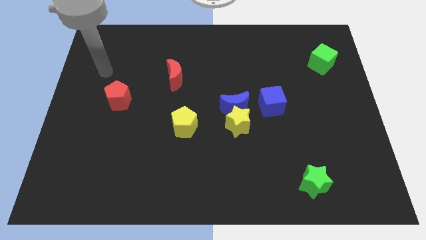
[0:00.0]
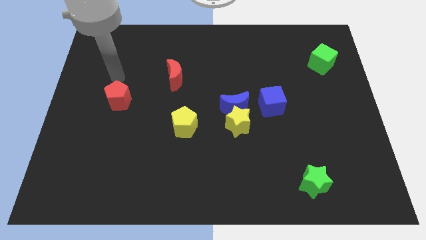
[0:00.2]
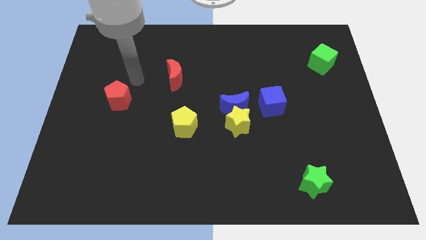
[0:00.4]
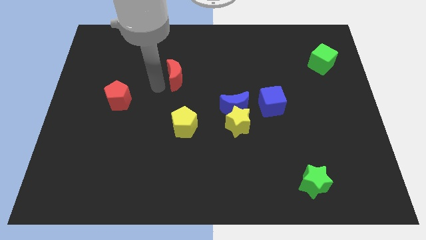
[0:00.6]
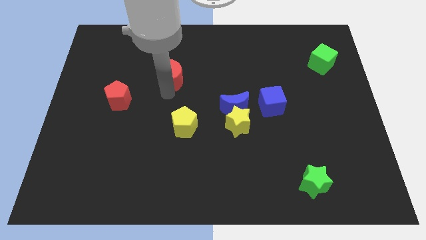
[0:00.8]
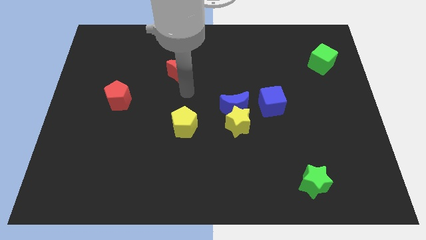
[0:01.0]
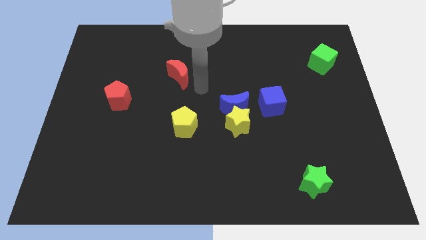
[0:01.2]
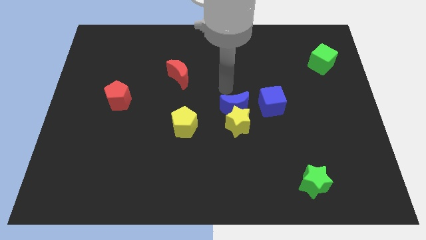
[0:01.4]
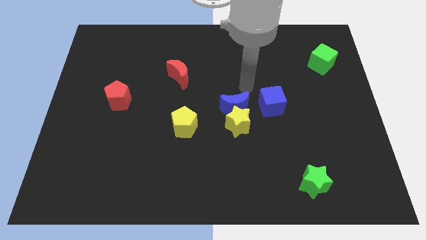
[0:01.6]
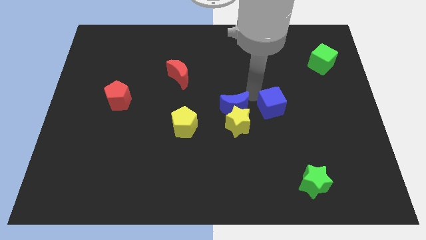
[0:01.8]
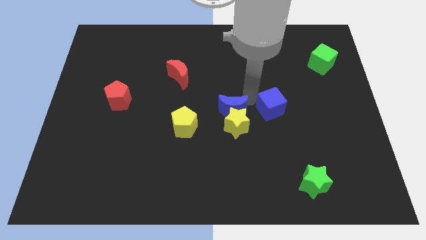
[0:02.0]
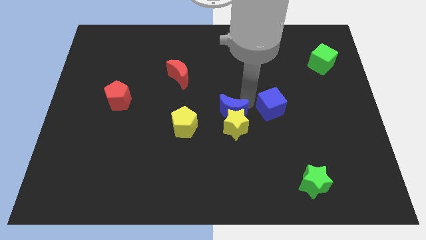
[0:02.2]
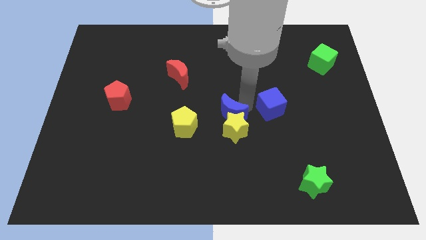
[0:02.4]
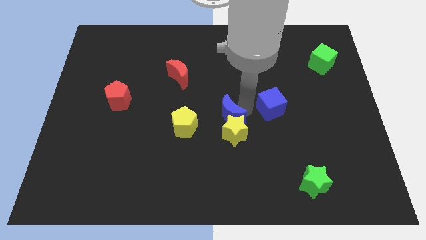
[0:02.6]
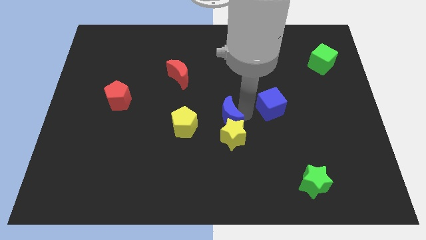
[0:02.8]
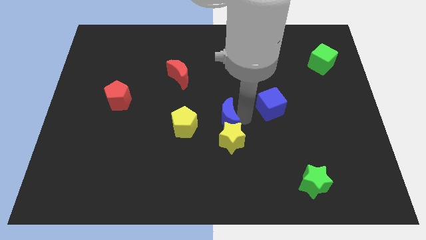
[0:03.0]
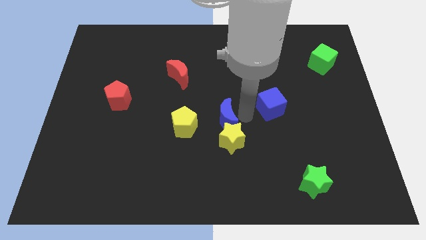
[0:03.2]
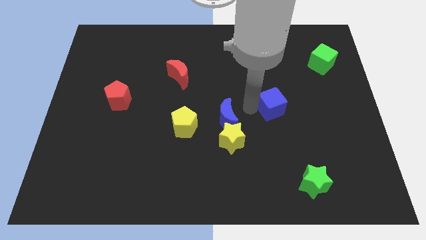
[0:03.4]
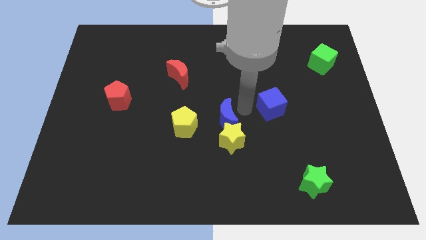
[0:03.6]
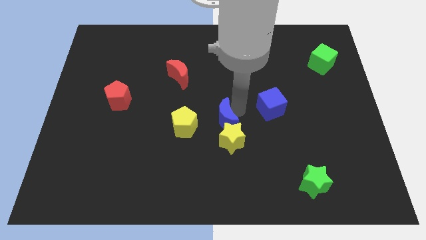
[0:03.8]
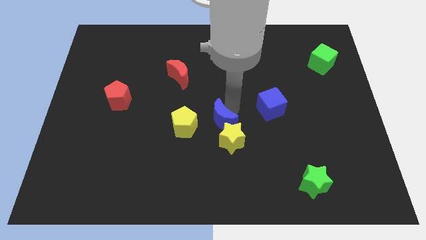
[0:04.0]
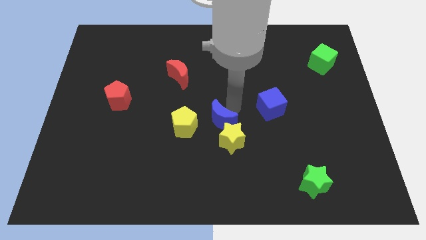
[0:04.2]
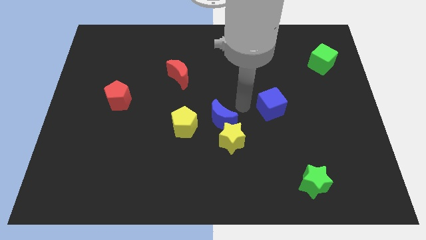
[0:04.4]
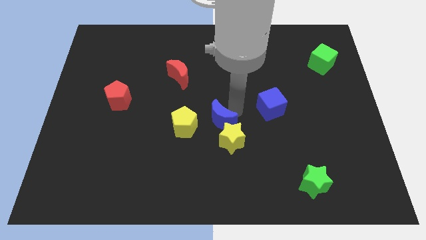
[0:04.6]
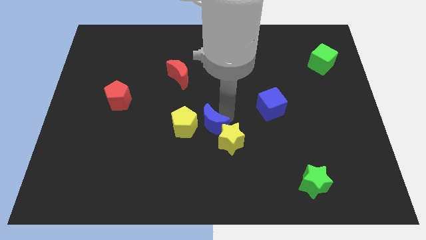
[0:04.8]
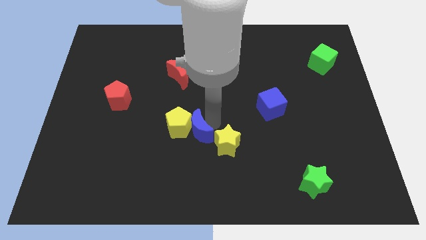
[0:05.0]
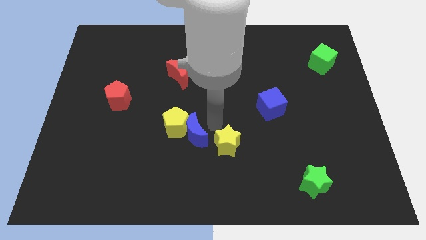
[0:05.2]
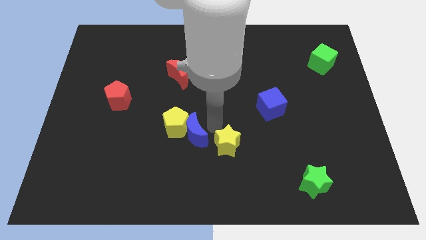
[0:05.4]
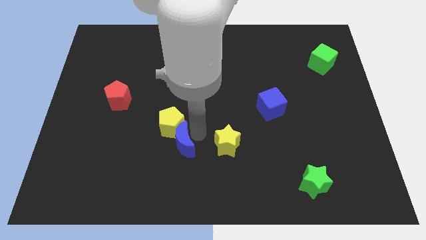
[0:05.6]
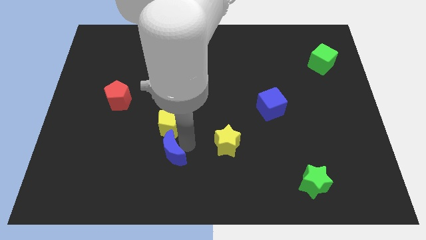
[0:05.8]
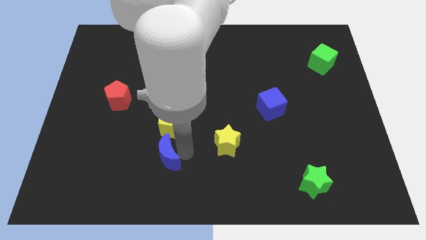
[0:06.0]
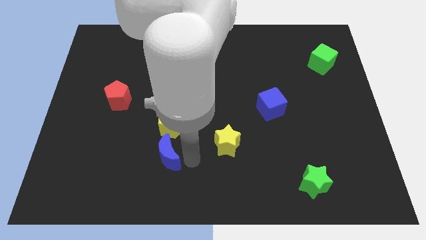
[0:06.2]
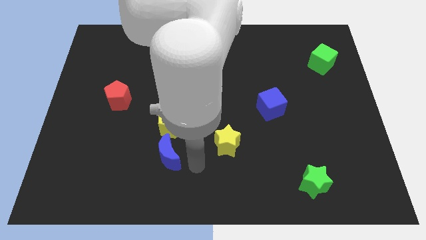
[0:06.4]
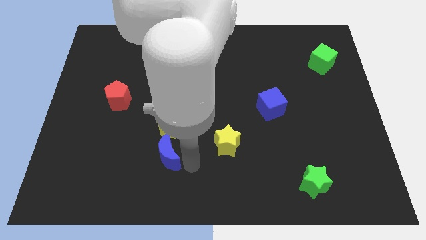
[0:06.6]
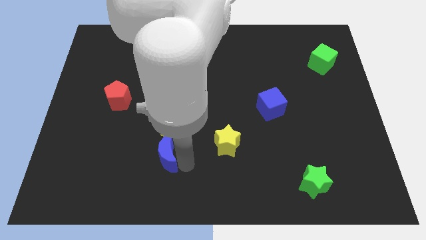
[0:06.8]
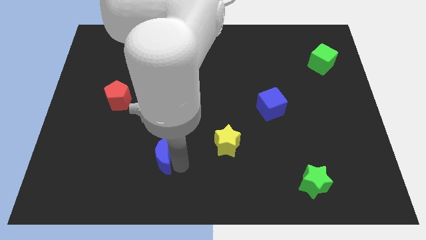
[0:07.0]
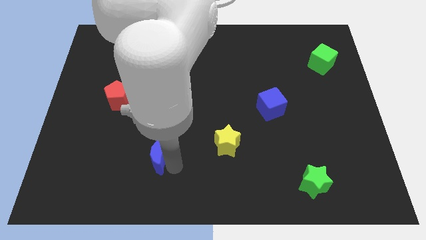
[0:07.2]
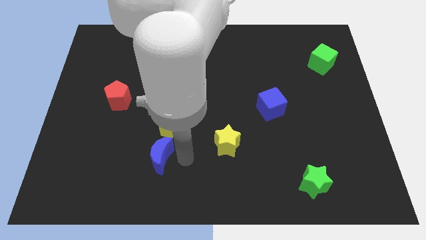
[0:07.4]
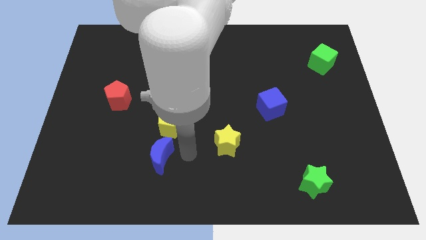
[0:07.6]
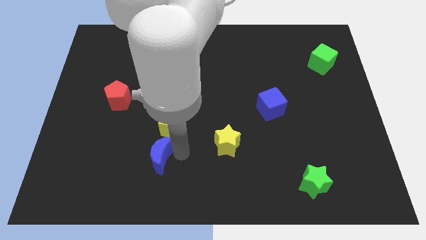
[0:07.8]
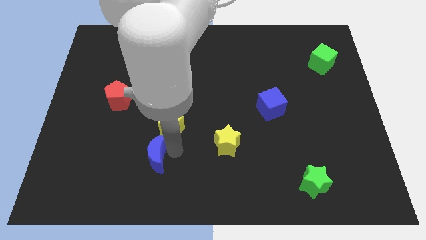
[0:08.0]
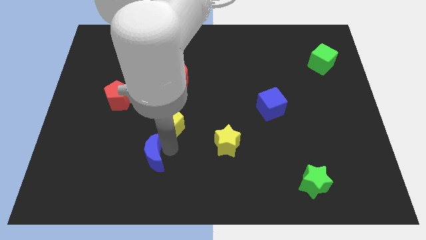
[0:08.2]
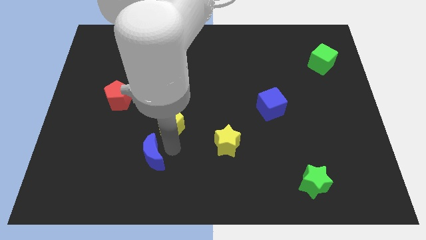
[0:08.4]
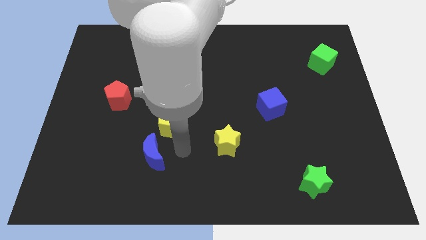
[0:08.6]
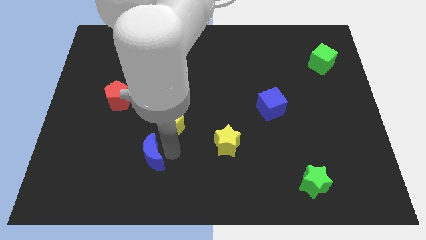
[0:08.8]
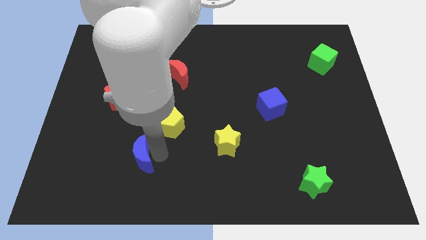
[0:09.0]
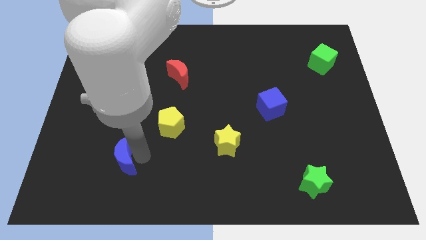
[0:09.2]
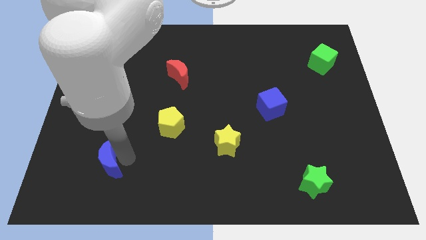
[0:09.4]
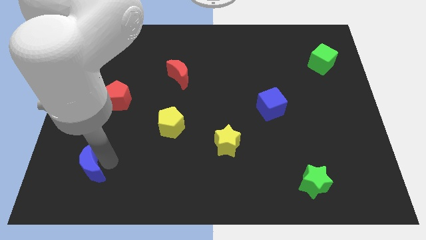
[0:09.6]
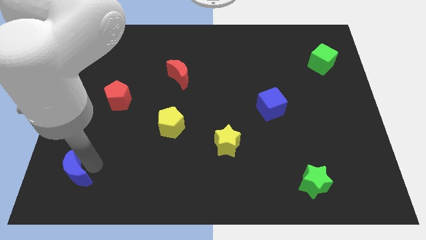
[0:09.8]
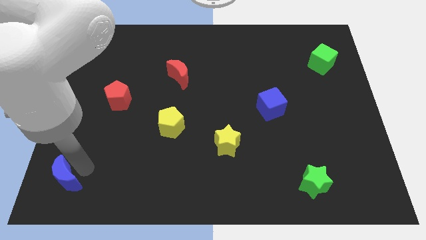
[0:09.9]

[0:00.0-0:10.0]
slide the blue moon to the lower left corner

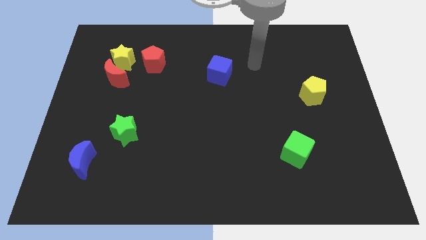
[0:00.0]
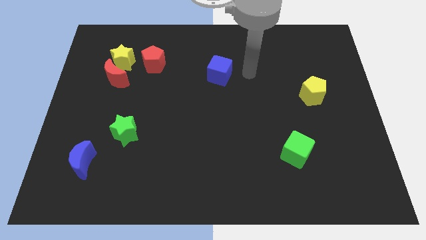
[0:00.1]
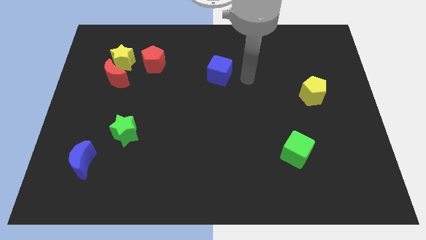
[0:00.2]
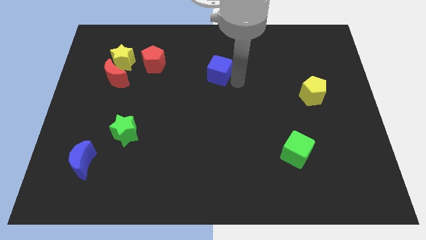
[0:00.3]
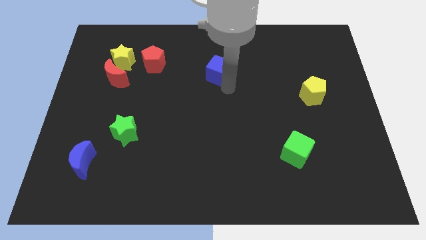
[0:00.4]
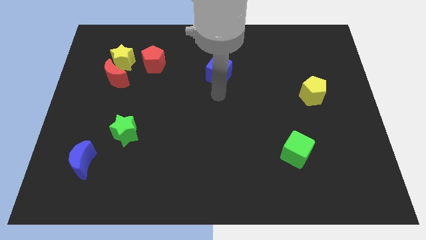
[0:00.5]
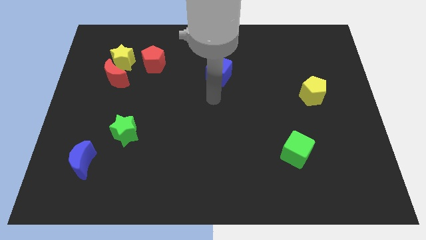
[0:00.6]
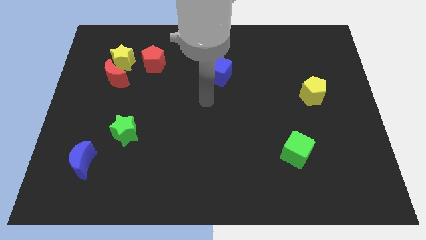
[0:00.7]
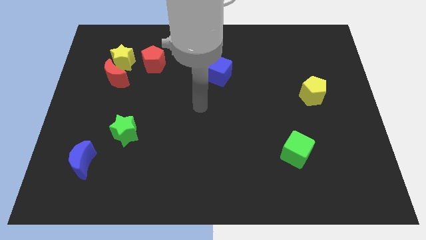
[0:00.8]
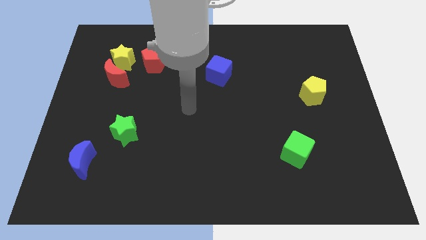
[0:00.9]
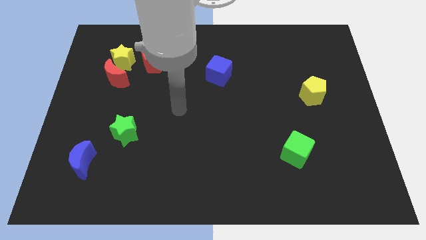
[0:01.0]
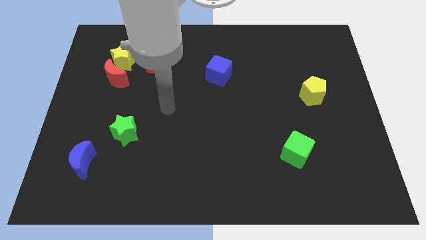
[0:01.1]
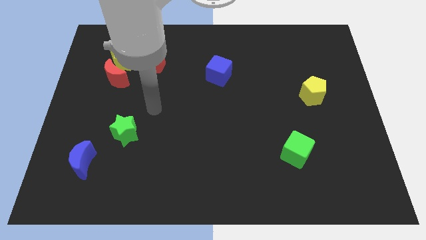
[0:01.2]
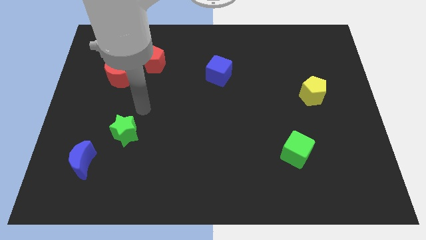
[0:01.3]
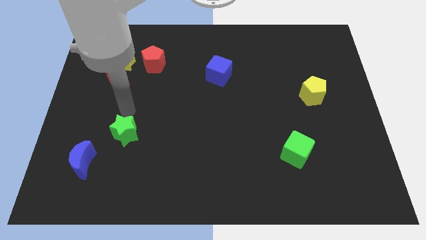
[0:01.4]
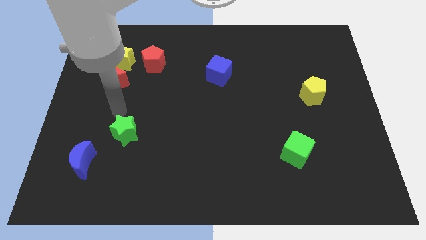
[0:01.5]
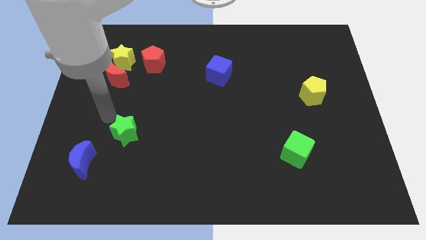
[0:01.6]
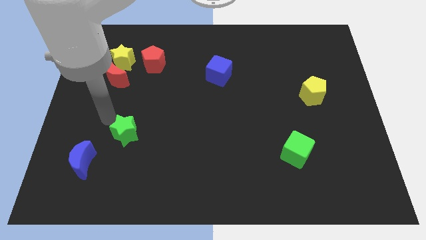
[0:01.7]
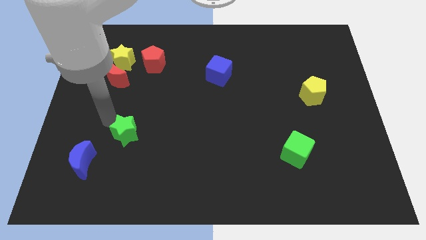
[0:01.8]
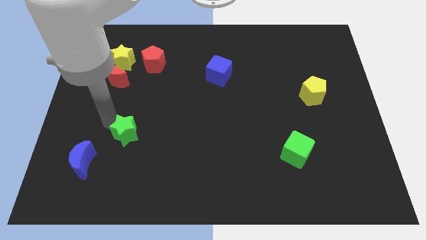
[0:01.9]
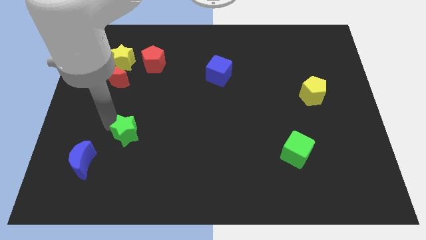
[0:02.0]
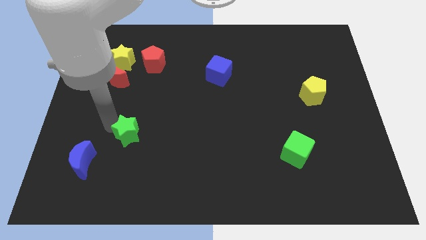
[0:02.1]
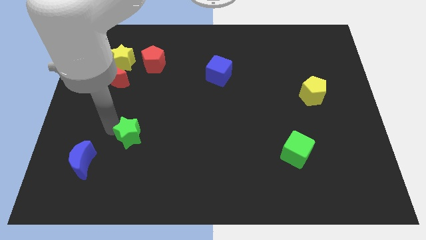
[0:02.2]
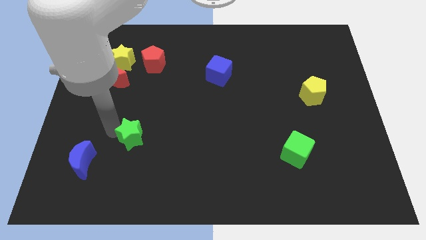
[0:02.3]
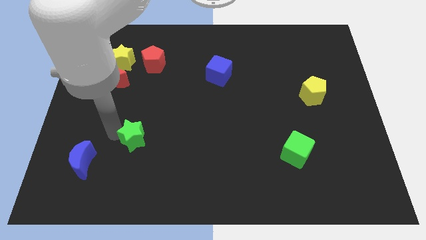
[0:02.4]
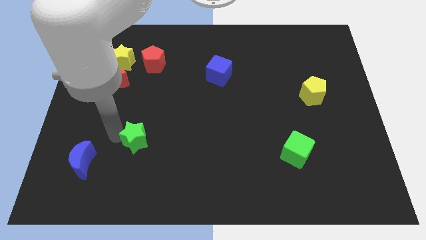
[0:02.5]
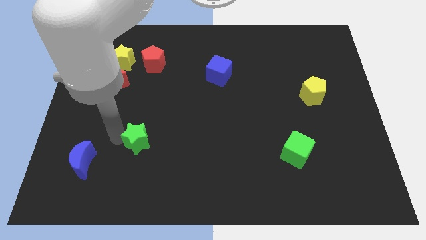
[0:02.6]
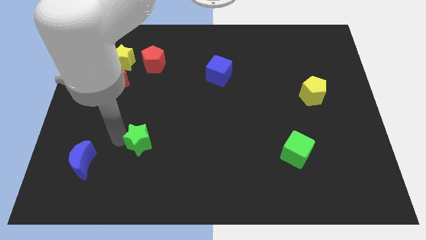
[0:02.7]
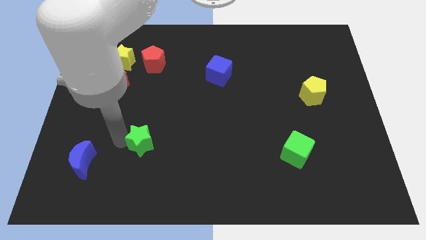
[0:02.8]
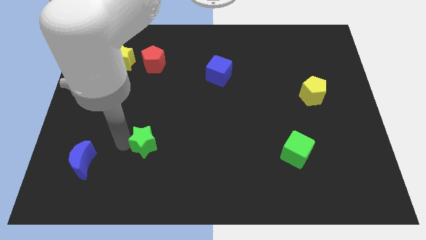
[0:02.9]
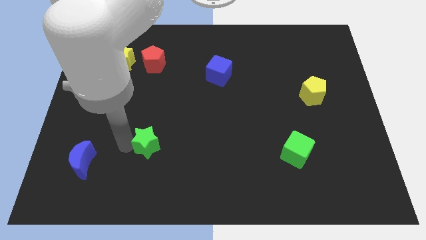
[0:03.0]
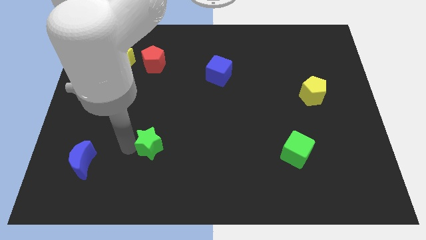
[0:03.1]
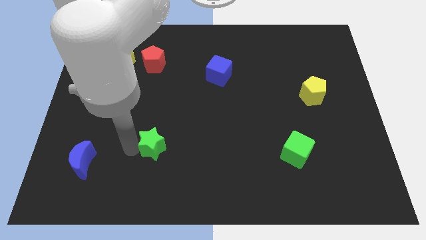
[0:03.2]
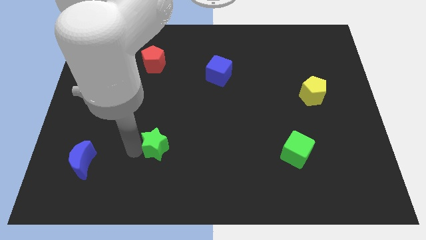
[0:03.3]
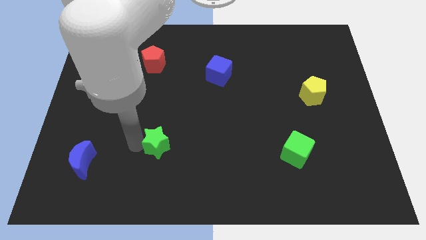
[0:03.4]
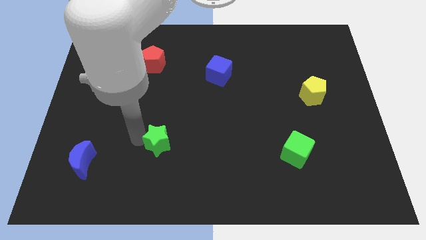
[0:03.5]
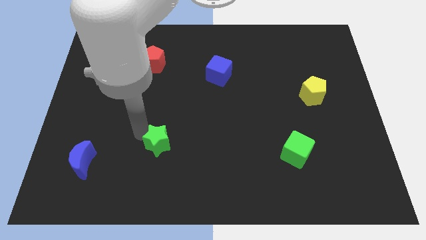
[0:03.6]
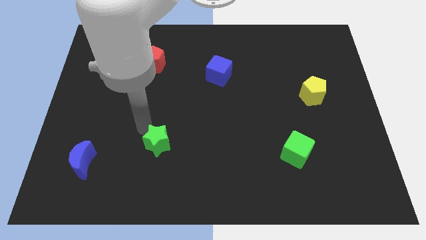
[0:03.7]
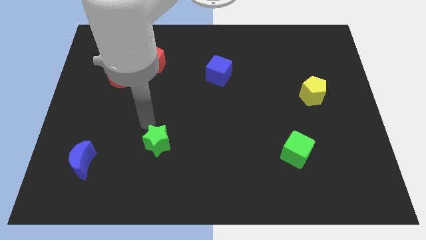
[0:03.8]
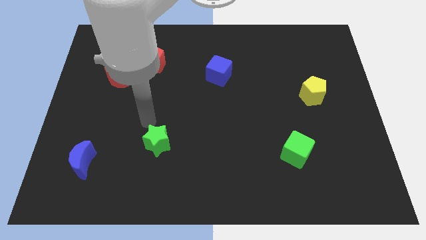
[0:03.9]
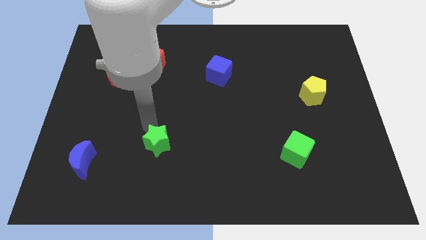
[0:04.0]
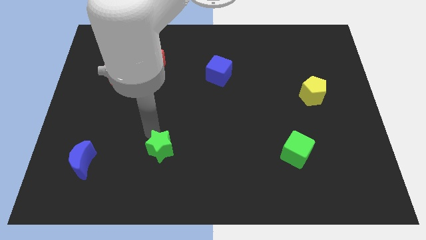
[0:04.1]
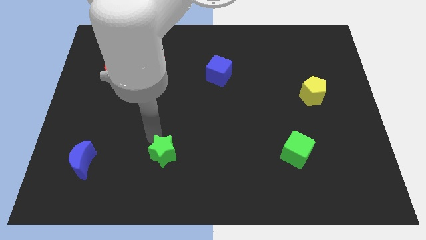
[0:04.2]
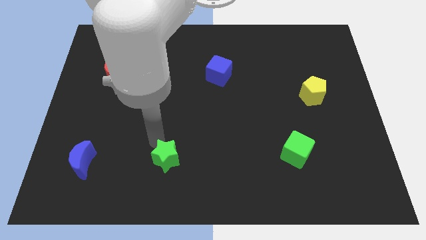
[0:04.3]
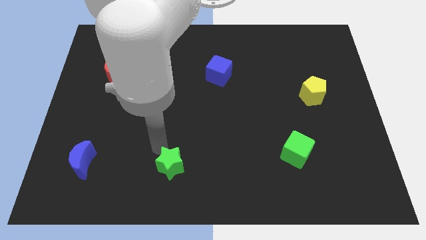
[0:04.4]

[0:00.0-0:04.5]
slide the green star to the bottom side
